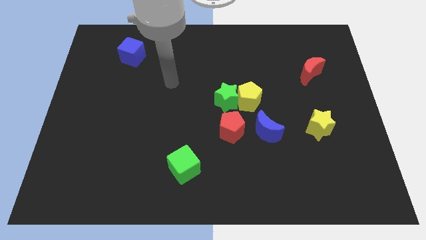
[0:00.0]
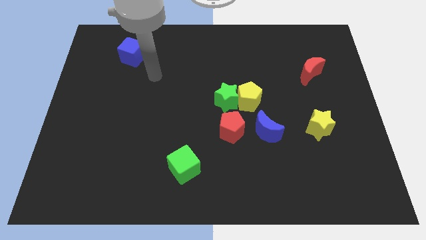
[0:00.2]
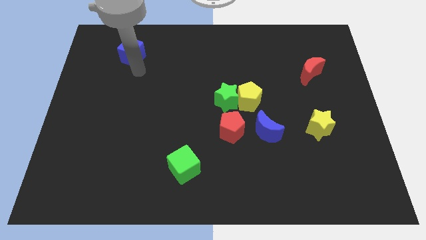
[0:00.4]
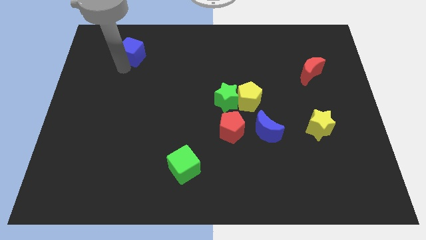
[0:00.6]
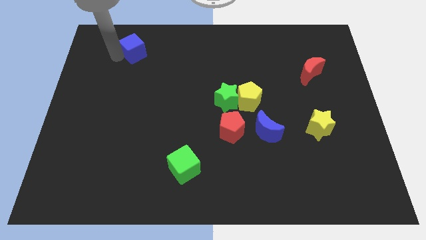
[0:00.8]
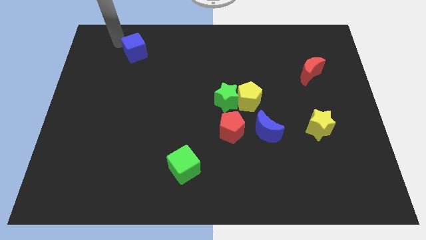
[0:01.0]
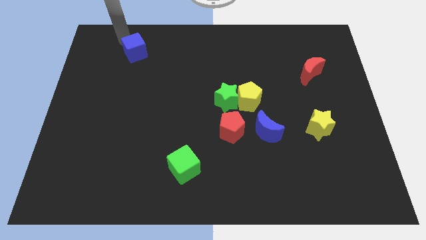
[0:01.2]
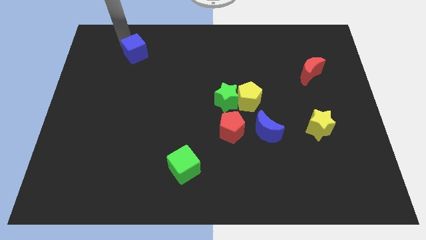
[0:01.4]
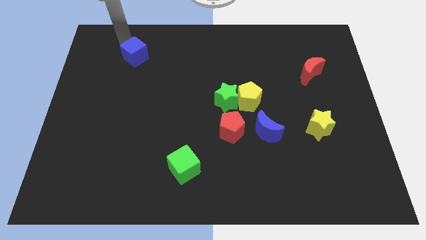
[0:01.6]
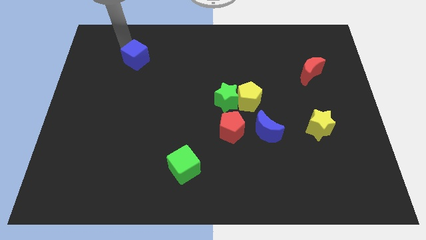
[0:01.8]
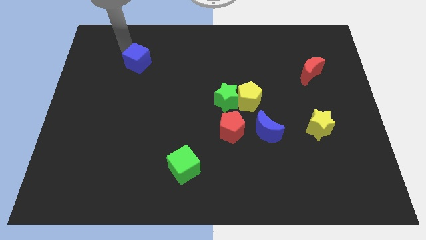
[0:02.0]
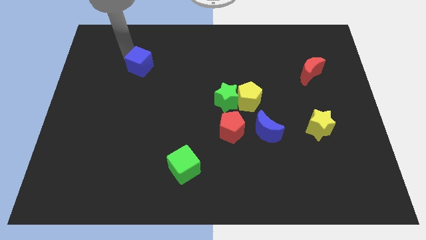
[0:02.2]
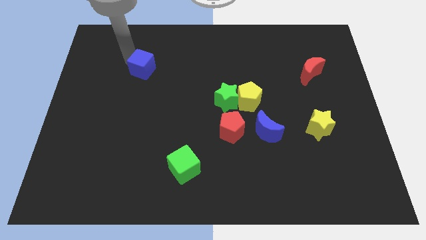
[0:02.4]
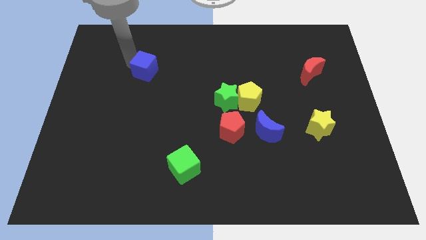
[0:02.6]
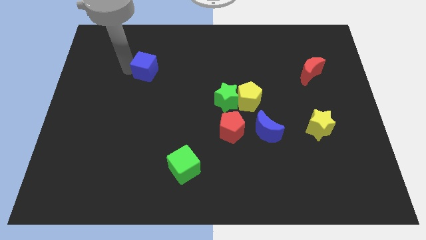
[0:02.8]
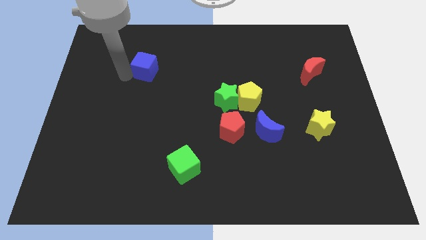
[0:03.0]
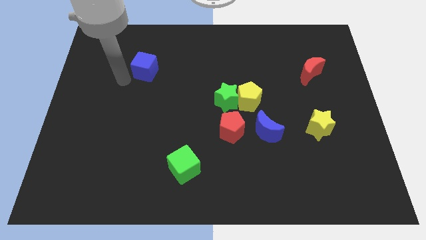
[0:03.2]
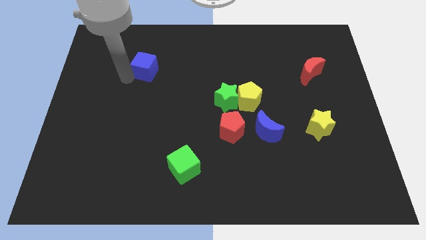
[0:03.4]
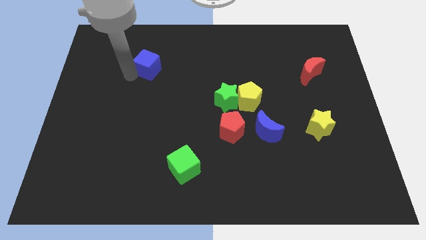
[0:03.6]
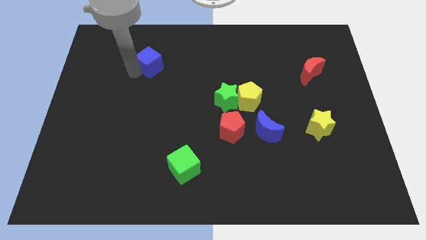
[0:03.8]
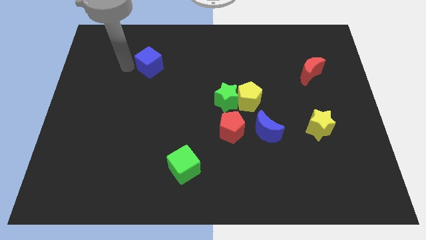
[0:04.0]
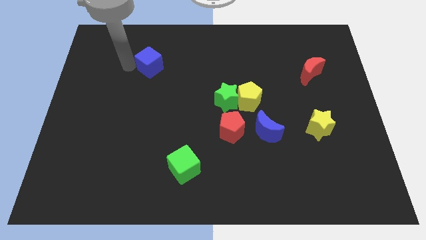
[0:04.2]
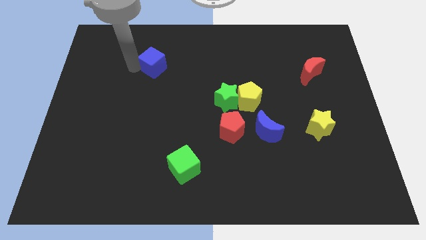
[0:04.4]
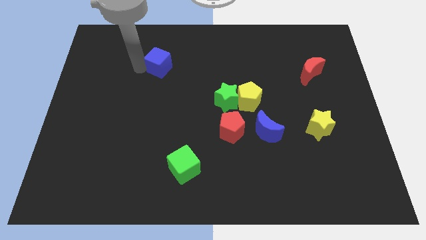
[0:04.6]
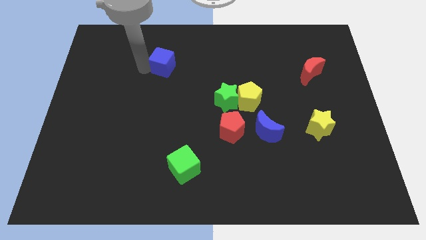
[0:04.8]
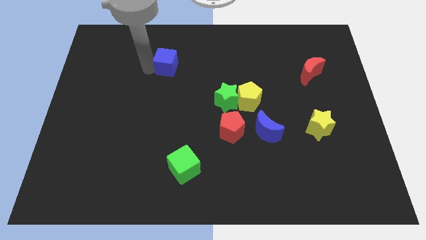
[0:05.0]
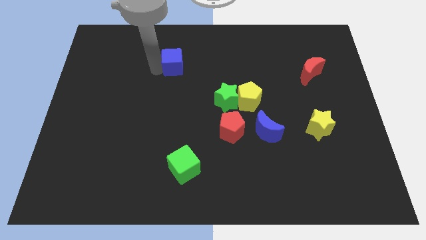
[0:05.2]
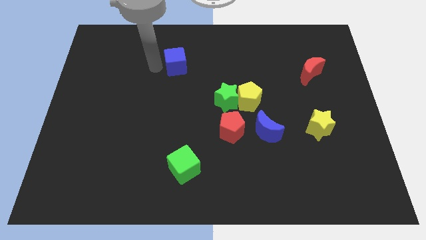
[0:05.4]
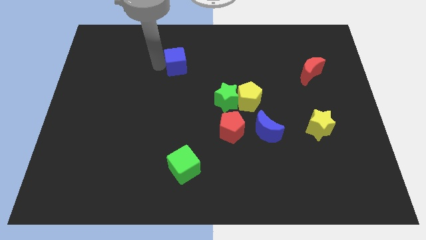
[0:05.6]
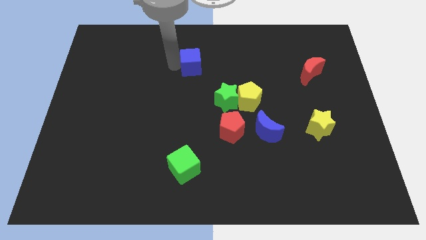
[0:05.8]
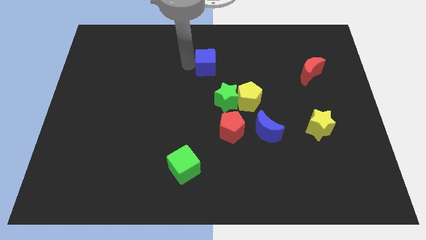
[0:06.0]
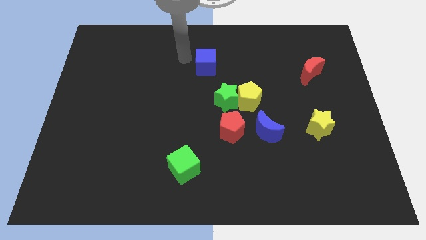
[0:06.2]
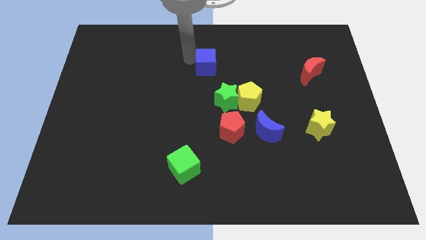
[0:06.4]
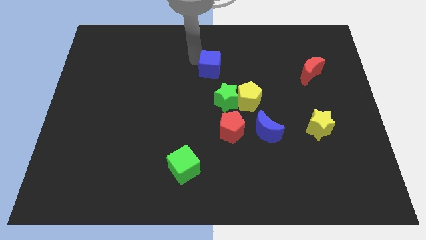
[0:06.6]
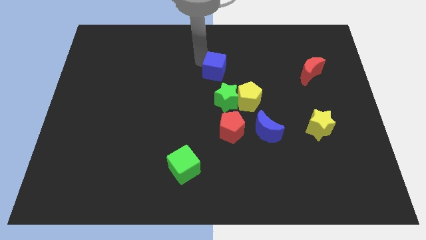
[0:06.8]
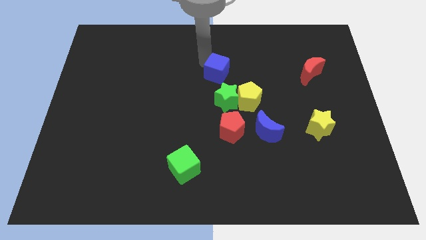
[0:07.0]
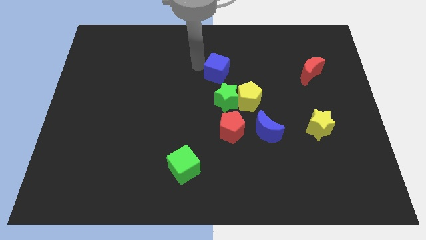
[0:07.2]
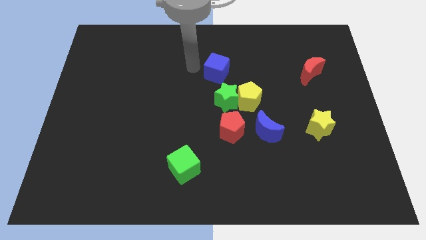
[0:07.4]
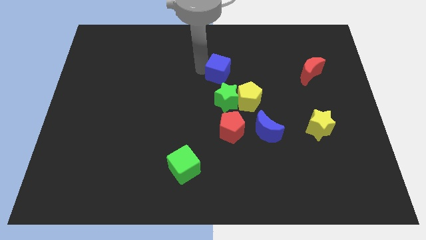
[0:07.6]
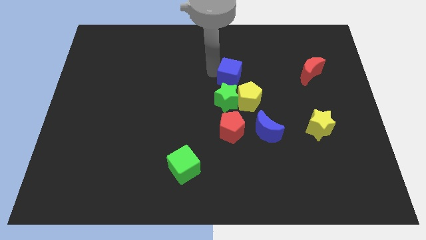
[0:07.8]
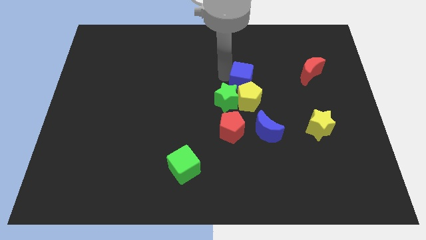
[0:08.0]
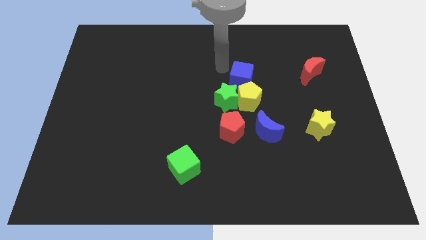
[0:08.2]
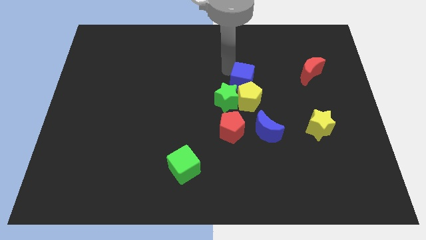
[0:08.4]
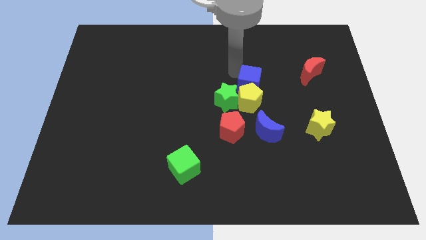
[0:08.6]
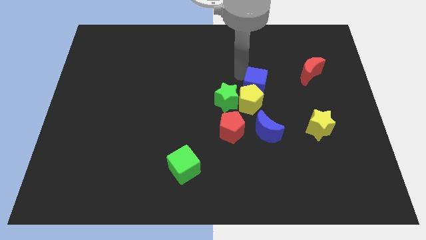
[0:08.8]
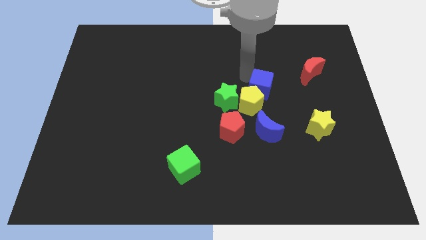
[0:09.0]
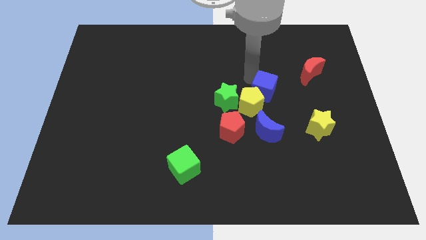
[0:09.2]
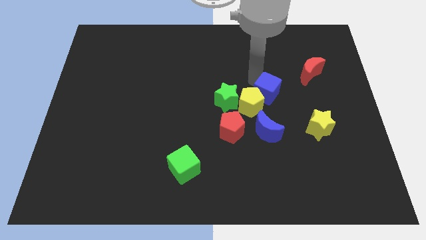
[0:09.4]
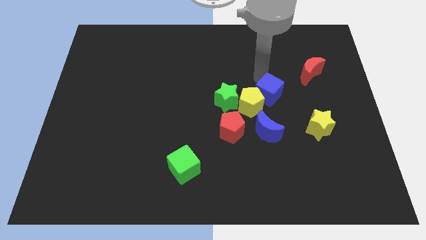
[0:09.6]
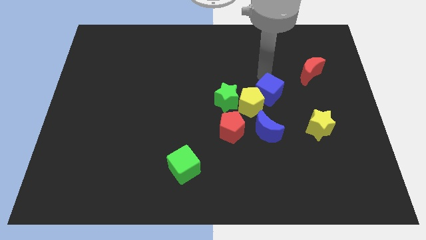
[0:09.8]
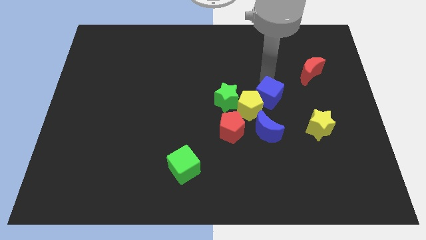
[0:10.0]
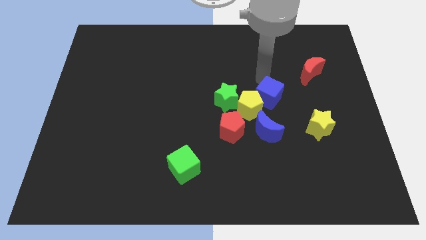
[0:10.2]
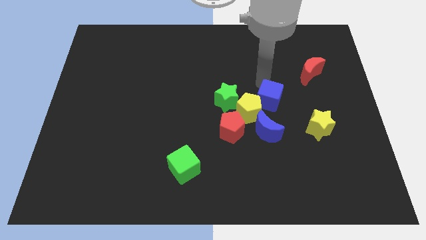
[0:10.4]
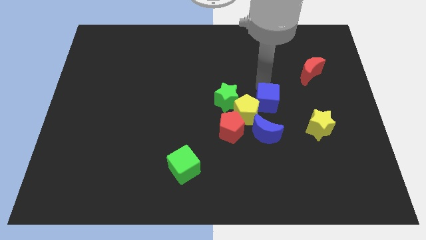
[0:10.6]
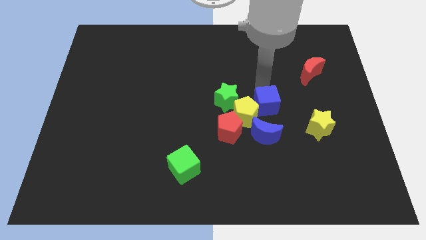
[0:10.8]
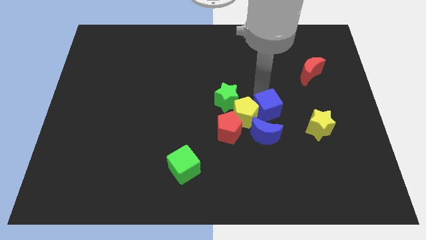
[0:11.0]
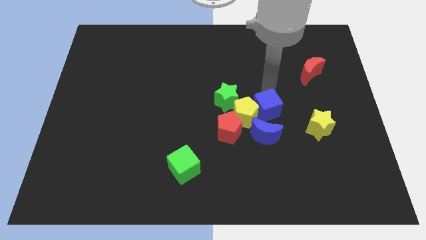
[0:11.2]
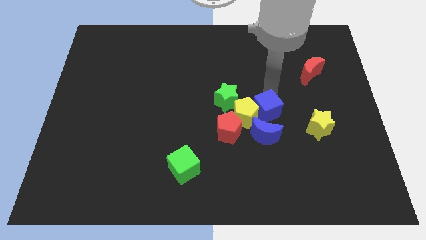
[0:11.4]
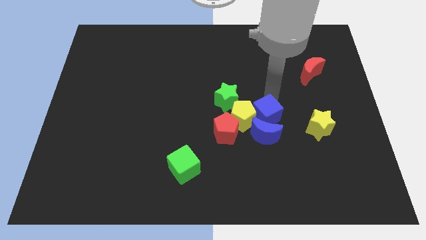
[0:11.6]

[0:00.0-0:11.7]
put the blue cube close to the blue moon

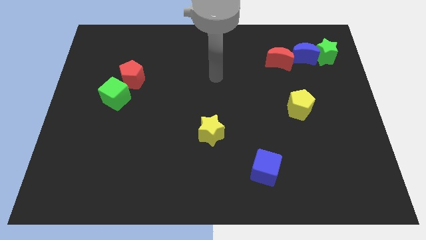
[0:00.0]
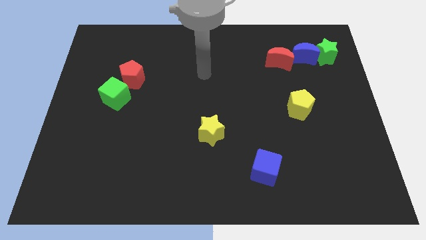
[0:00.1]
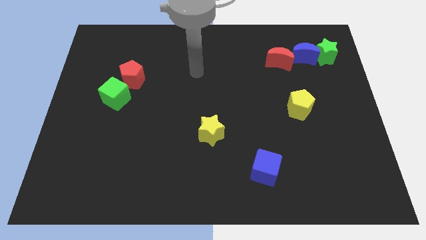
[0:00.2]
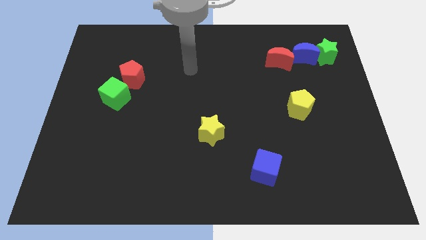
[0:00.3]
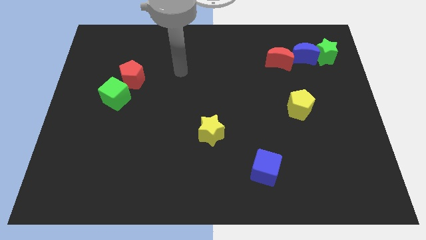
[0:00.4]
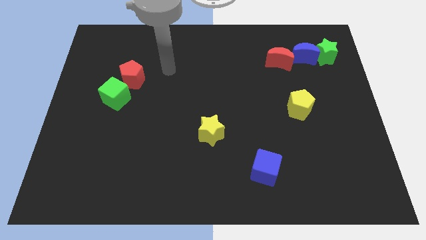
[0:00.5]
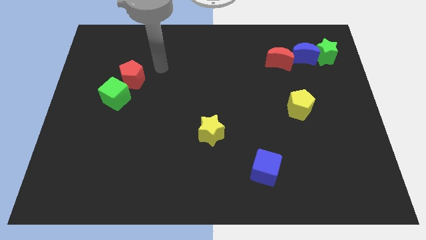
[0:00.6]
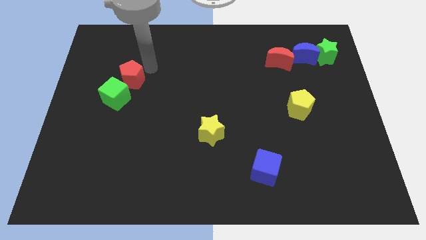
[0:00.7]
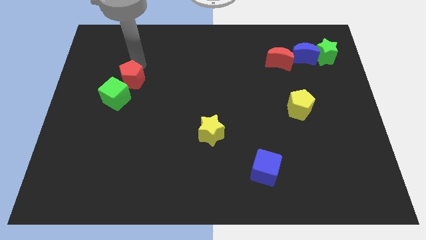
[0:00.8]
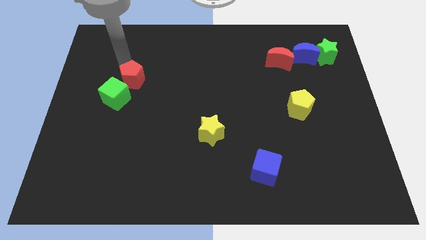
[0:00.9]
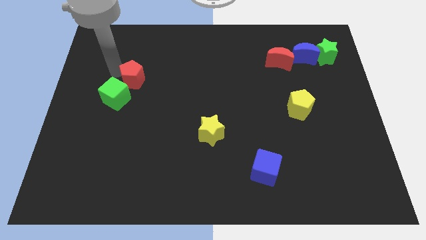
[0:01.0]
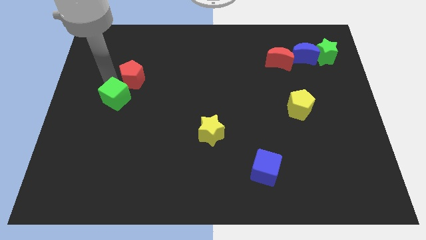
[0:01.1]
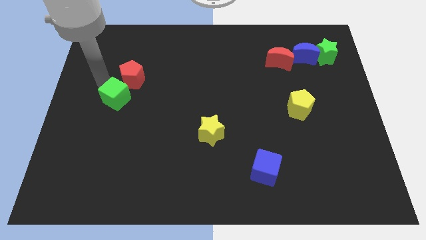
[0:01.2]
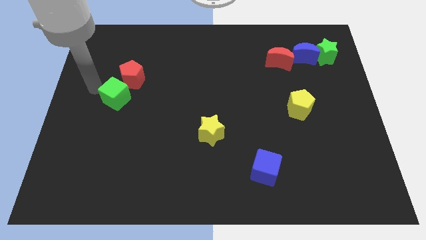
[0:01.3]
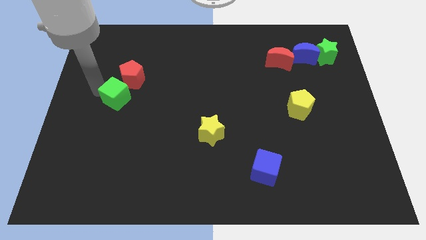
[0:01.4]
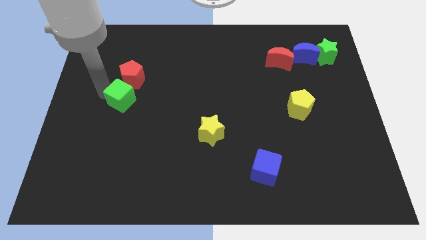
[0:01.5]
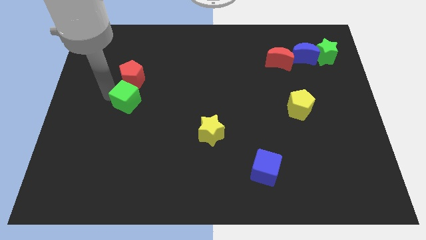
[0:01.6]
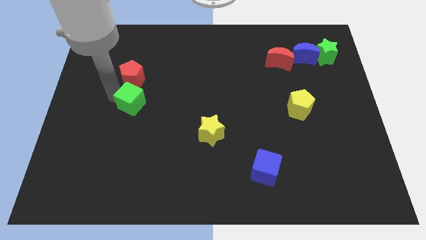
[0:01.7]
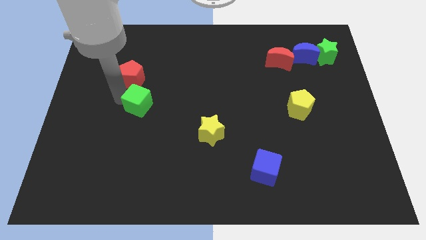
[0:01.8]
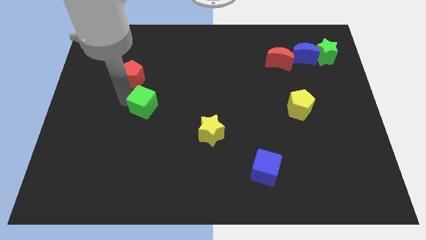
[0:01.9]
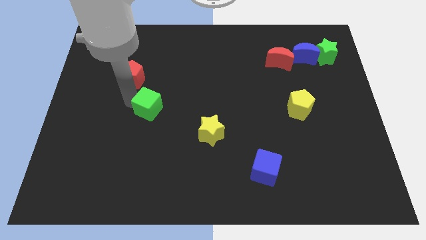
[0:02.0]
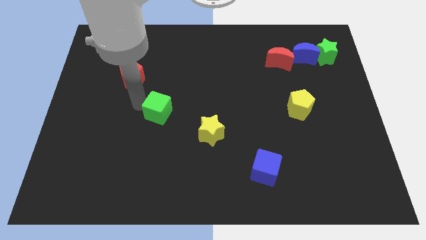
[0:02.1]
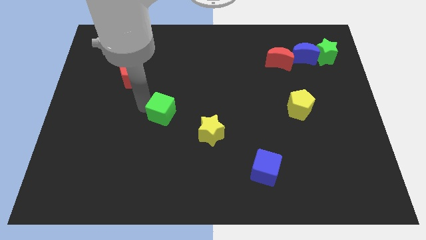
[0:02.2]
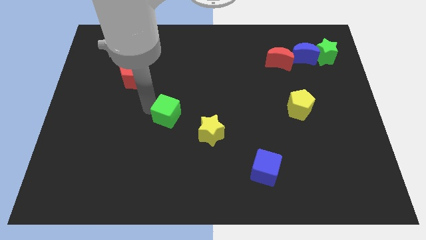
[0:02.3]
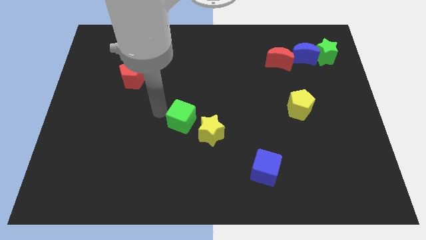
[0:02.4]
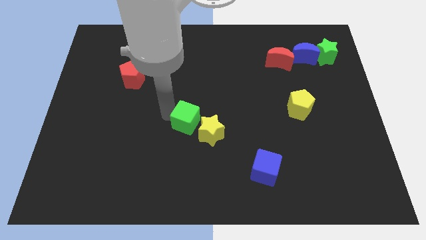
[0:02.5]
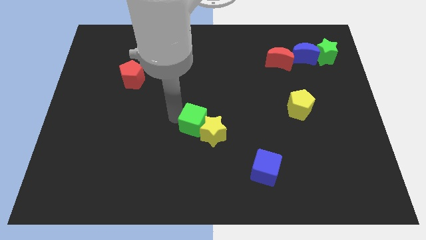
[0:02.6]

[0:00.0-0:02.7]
put the green cube next to the yellow star
